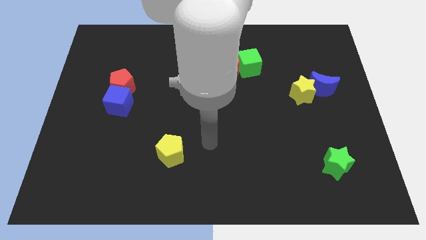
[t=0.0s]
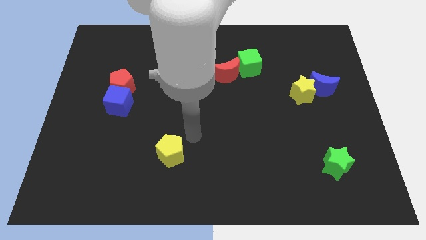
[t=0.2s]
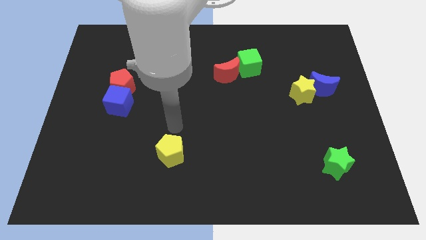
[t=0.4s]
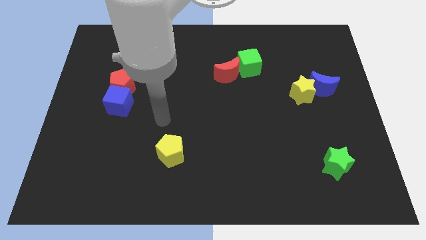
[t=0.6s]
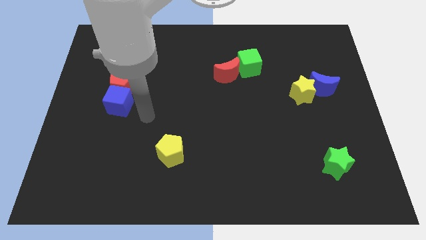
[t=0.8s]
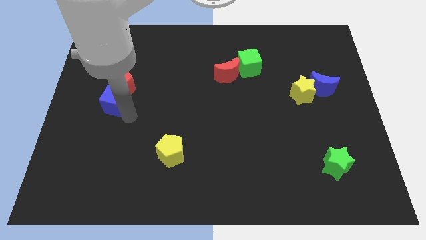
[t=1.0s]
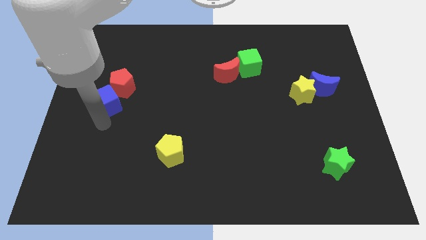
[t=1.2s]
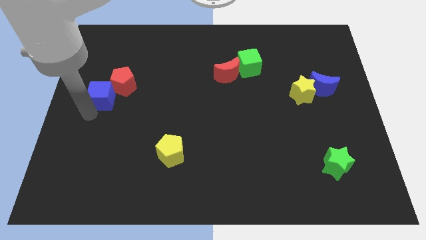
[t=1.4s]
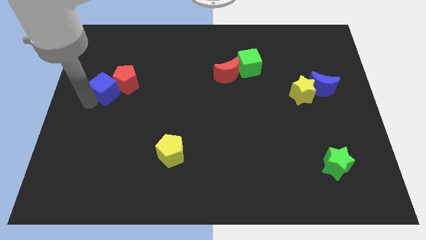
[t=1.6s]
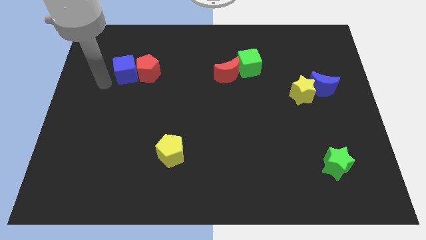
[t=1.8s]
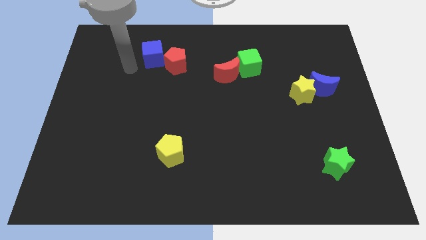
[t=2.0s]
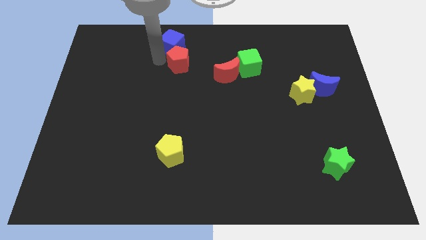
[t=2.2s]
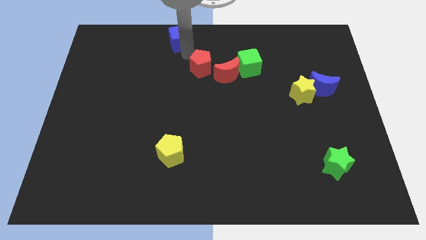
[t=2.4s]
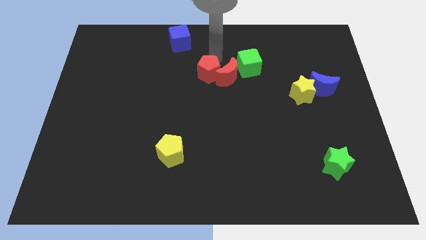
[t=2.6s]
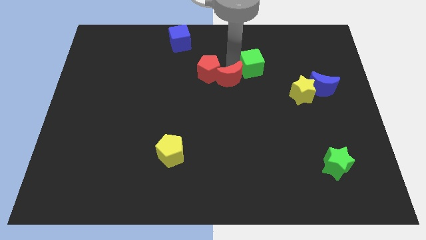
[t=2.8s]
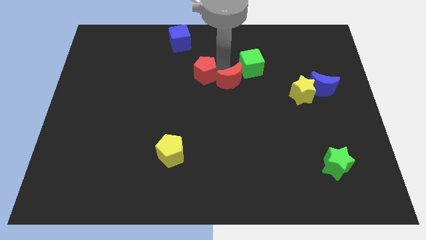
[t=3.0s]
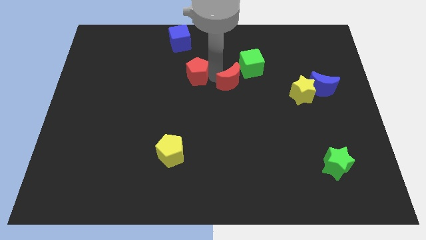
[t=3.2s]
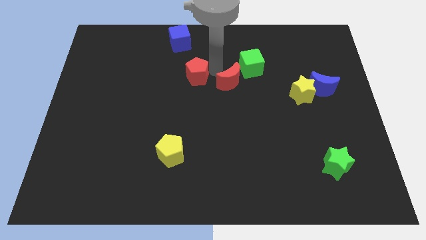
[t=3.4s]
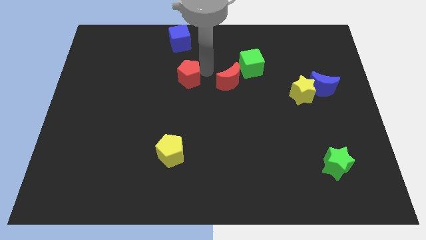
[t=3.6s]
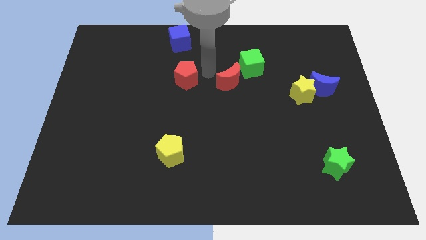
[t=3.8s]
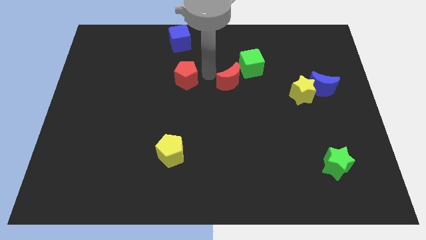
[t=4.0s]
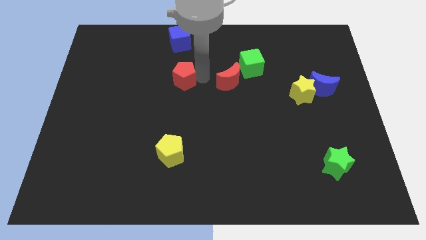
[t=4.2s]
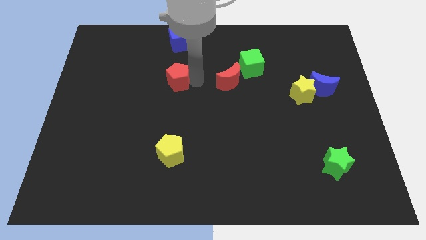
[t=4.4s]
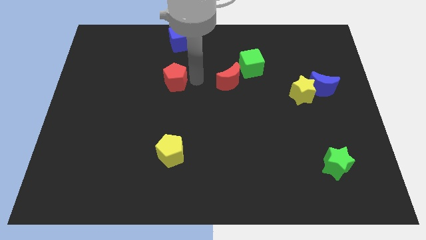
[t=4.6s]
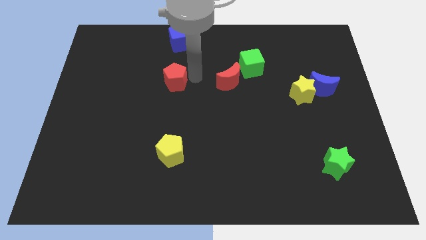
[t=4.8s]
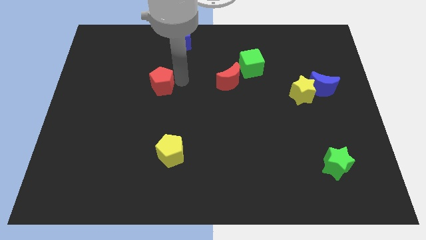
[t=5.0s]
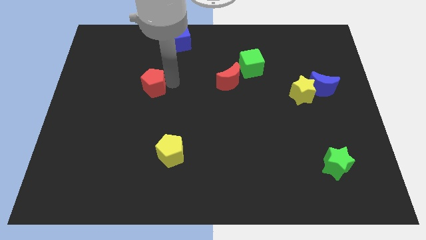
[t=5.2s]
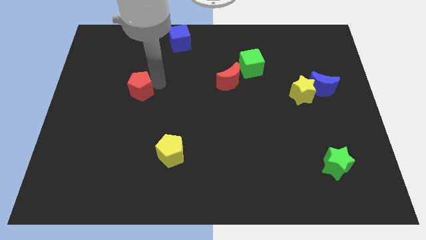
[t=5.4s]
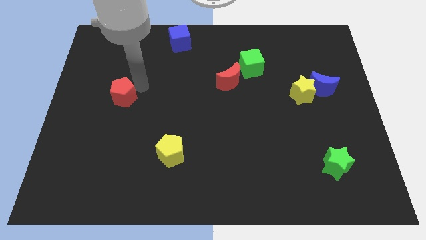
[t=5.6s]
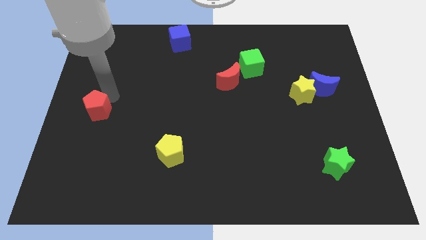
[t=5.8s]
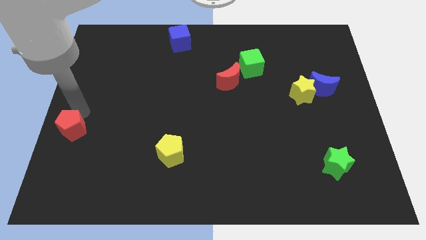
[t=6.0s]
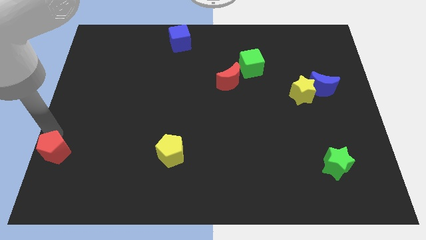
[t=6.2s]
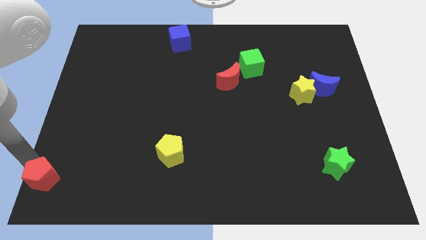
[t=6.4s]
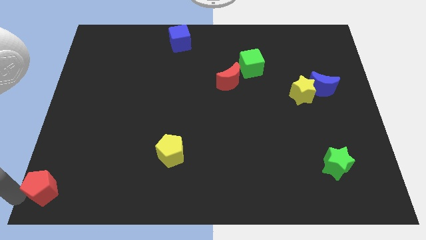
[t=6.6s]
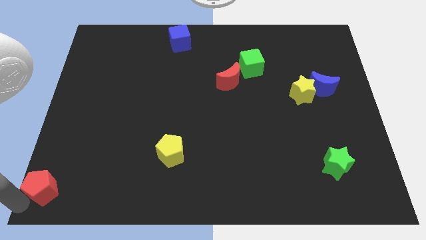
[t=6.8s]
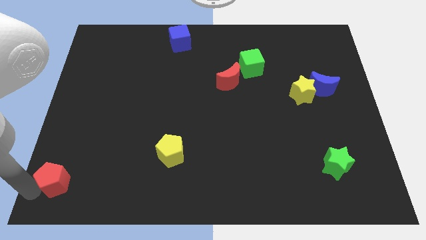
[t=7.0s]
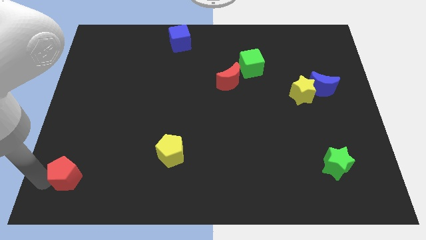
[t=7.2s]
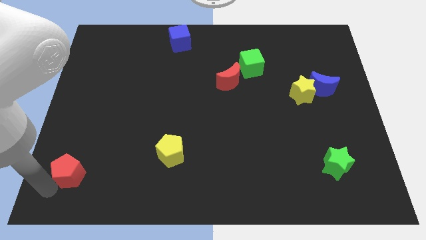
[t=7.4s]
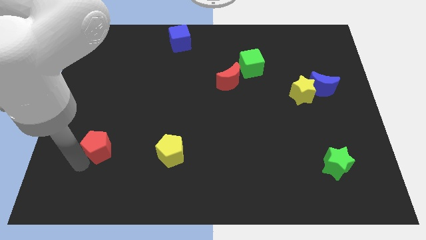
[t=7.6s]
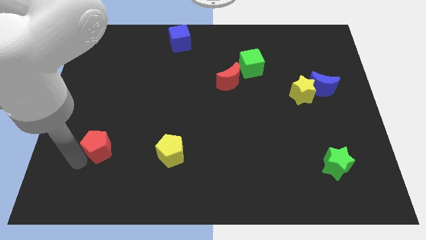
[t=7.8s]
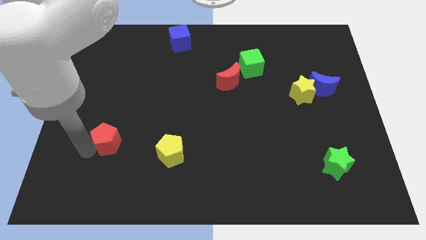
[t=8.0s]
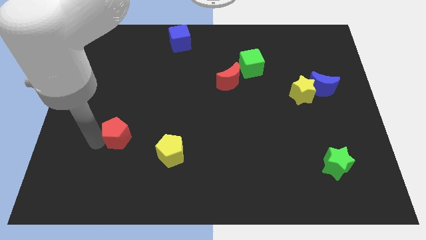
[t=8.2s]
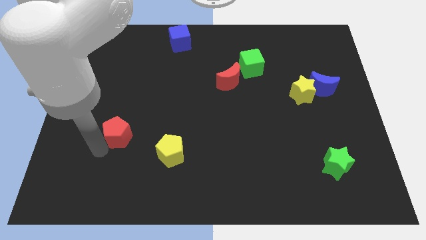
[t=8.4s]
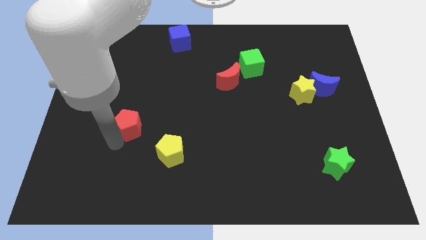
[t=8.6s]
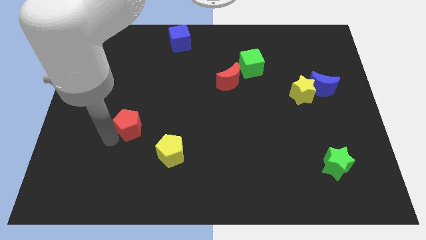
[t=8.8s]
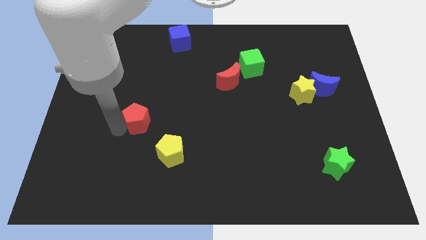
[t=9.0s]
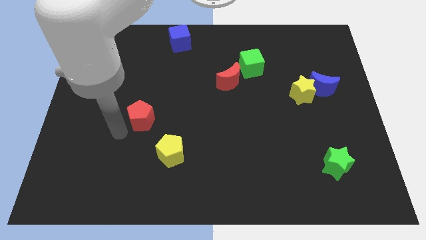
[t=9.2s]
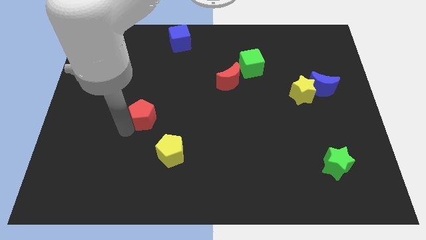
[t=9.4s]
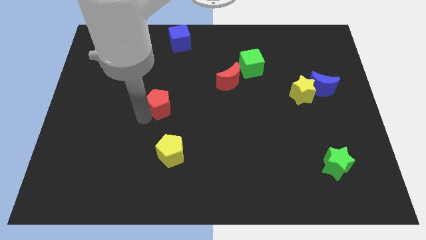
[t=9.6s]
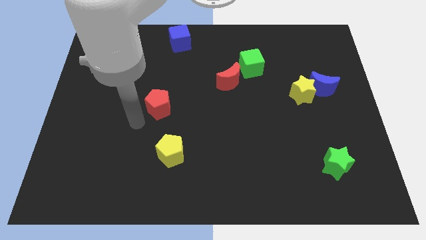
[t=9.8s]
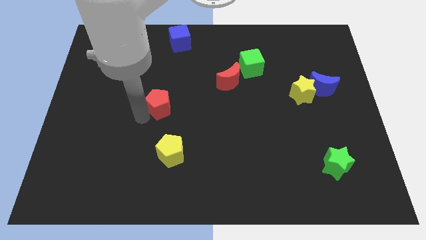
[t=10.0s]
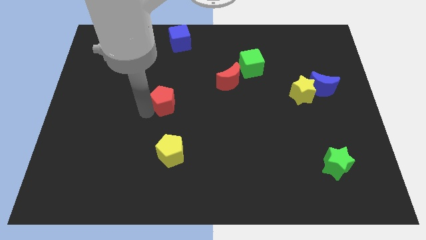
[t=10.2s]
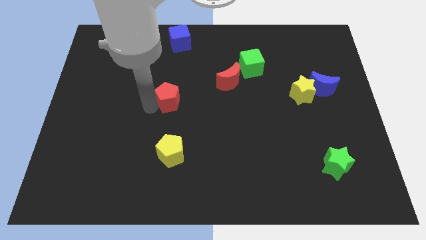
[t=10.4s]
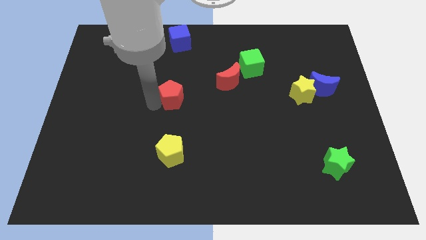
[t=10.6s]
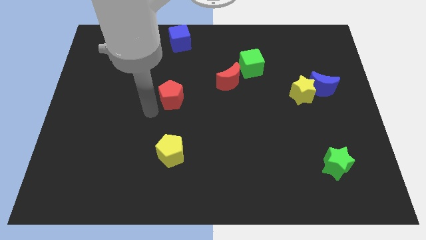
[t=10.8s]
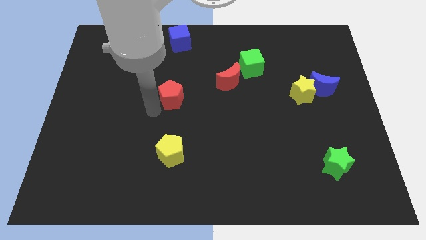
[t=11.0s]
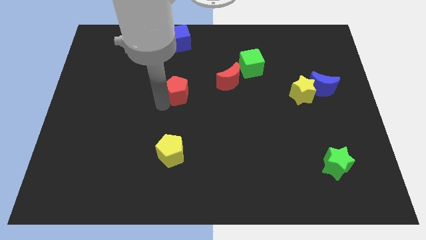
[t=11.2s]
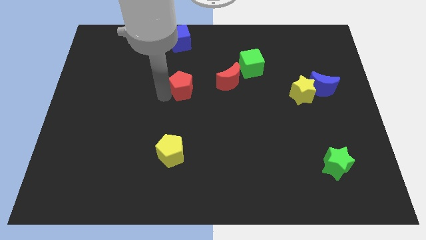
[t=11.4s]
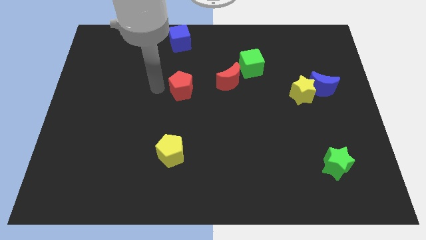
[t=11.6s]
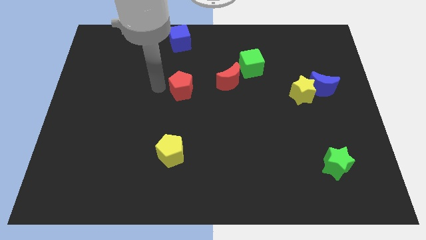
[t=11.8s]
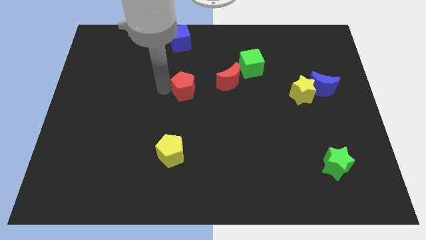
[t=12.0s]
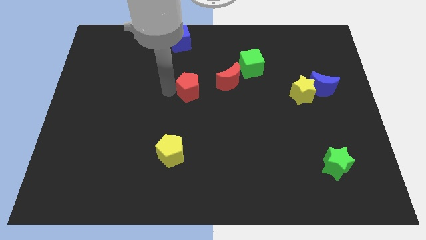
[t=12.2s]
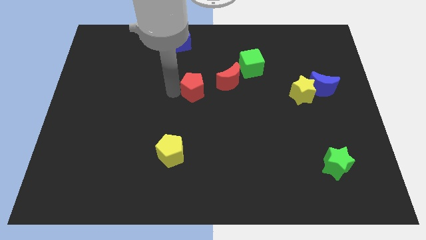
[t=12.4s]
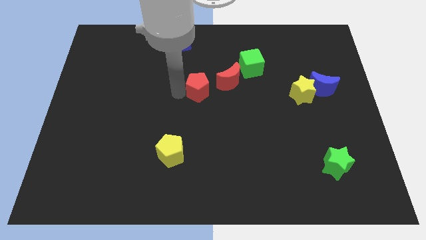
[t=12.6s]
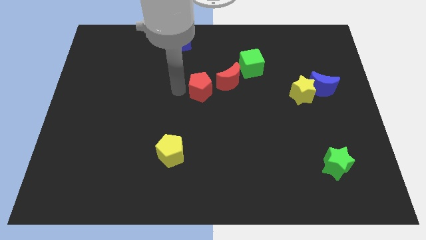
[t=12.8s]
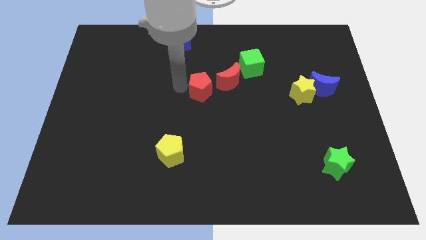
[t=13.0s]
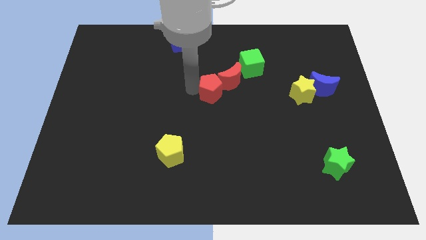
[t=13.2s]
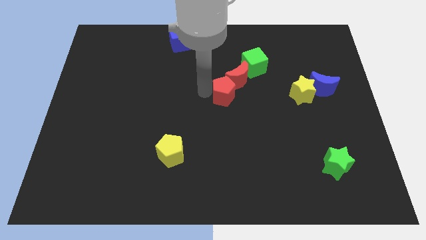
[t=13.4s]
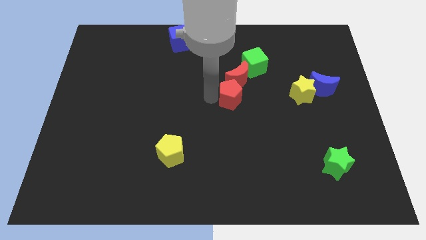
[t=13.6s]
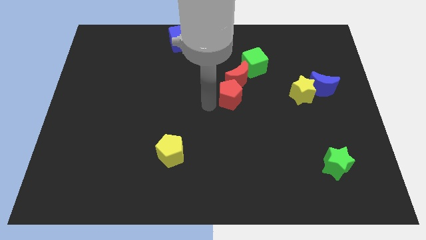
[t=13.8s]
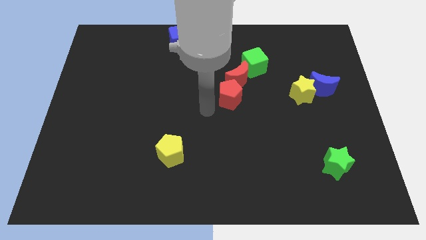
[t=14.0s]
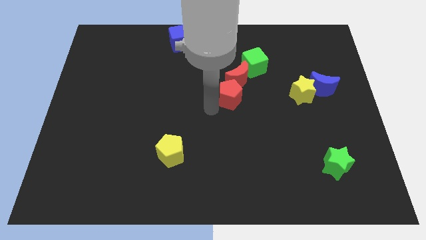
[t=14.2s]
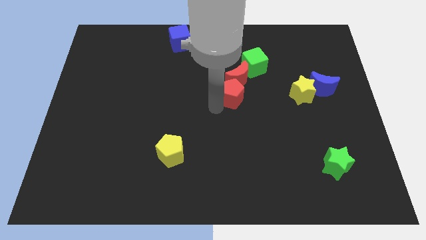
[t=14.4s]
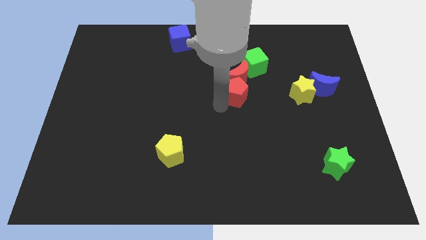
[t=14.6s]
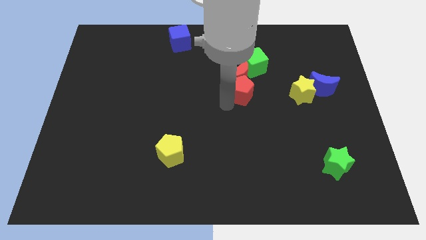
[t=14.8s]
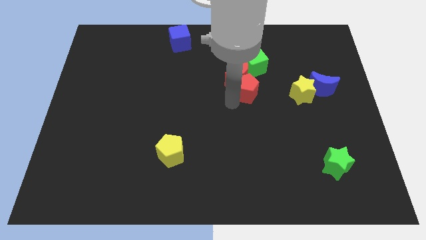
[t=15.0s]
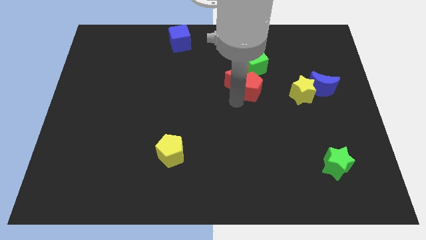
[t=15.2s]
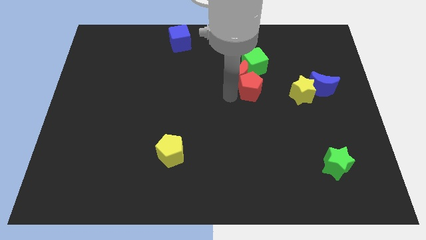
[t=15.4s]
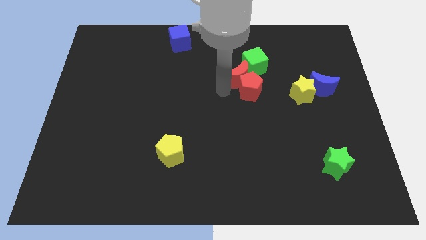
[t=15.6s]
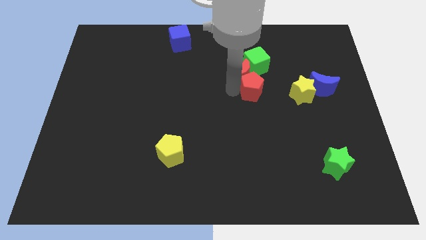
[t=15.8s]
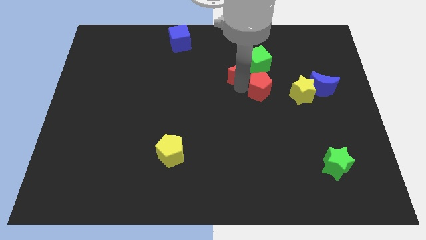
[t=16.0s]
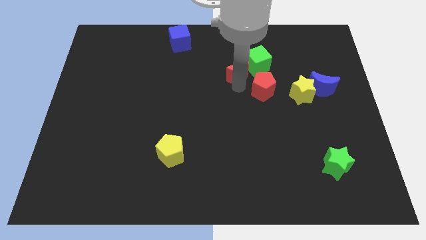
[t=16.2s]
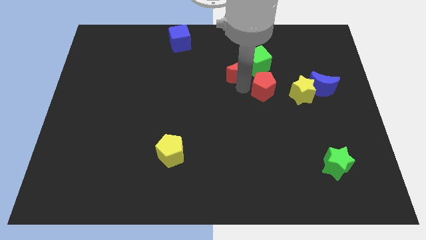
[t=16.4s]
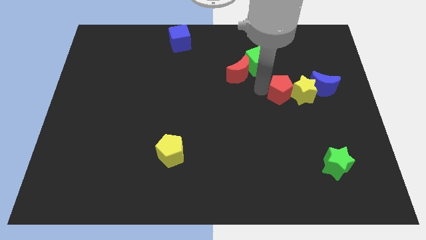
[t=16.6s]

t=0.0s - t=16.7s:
put the red pentagon close to the yellow star
